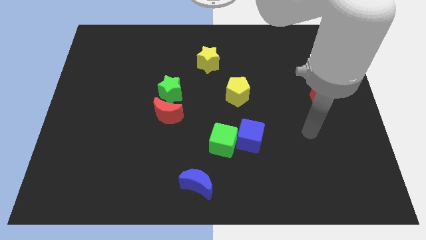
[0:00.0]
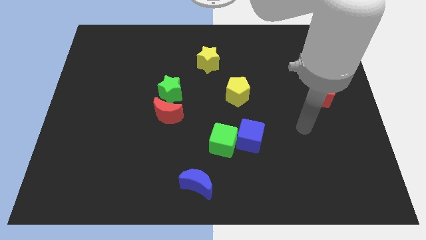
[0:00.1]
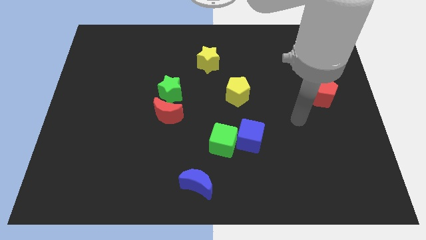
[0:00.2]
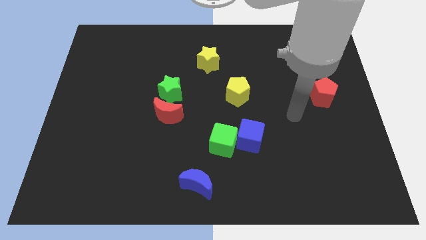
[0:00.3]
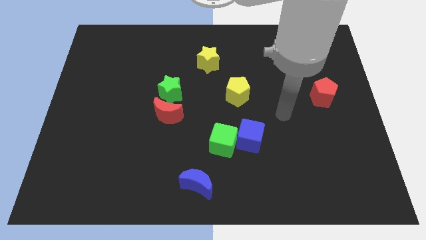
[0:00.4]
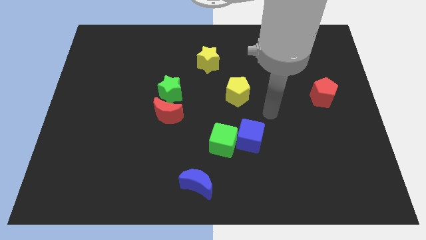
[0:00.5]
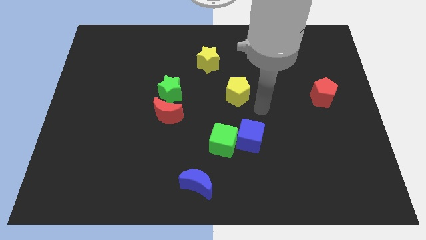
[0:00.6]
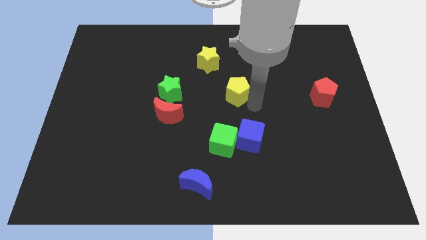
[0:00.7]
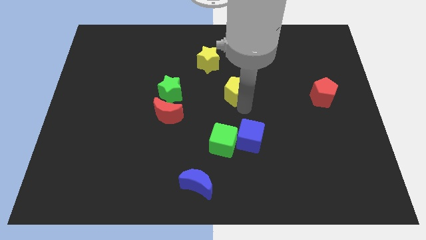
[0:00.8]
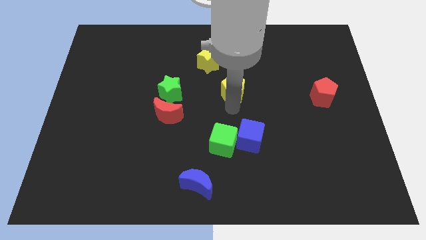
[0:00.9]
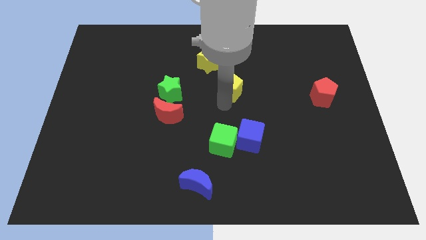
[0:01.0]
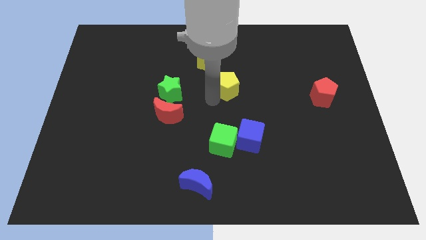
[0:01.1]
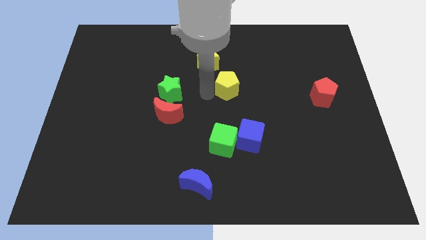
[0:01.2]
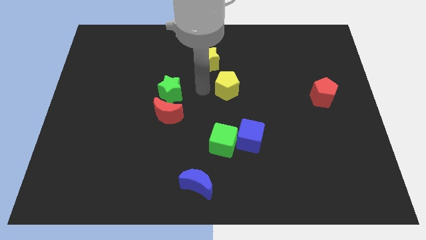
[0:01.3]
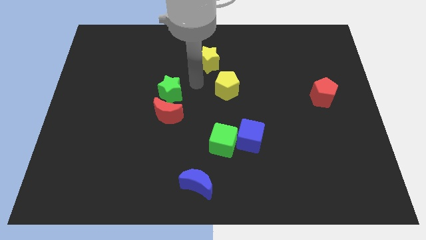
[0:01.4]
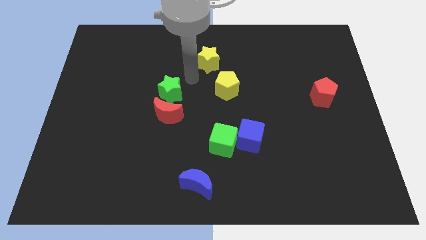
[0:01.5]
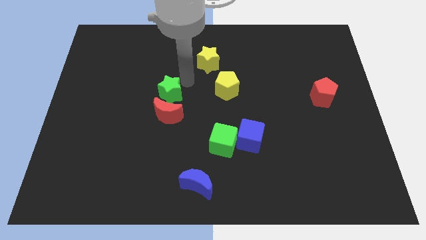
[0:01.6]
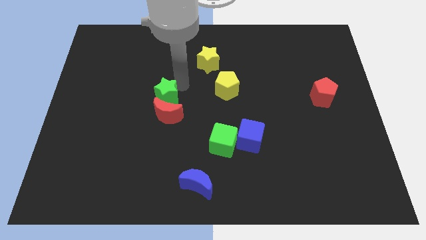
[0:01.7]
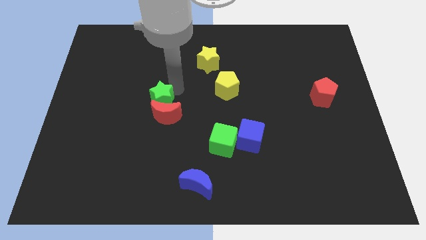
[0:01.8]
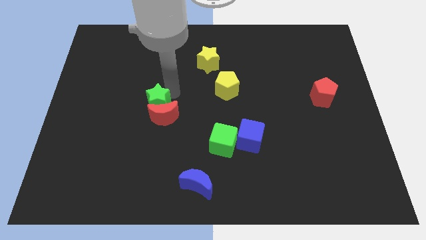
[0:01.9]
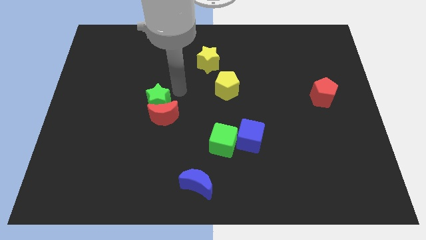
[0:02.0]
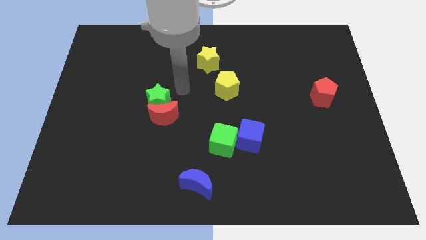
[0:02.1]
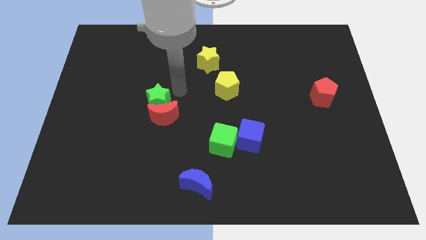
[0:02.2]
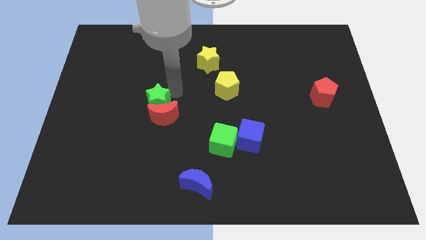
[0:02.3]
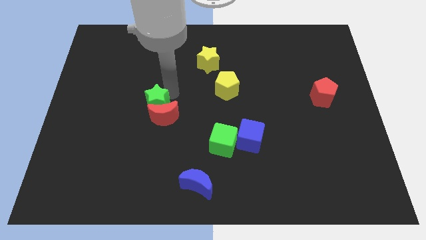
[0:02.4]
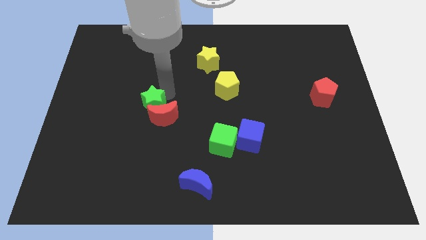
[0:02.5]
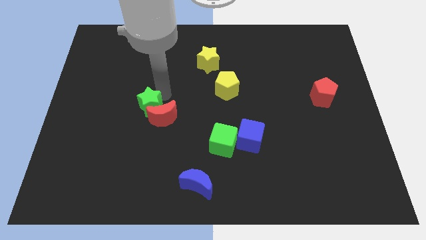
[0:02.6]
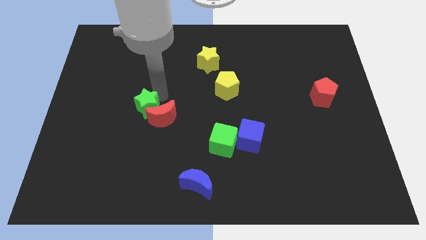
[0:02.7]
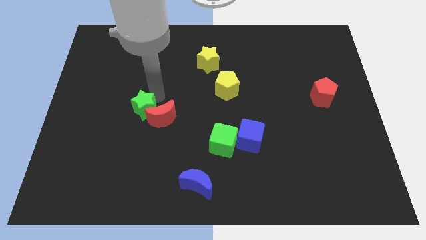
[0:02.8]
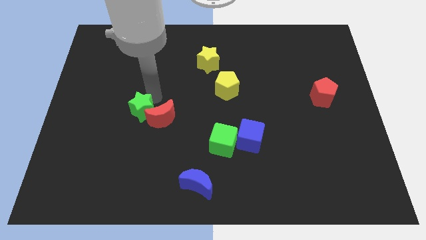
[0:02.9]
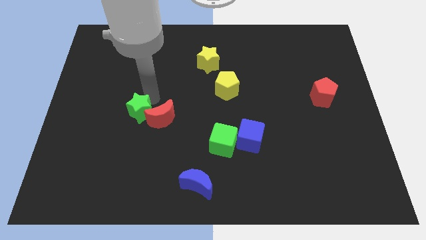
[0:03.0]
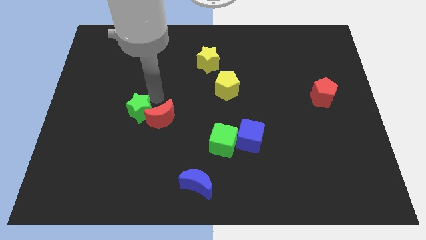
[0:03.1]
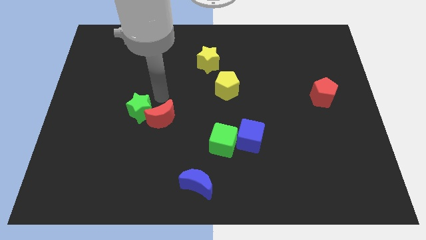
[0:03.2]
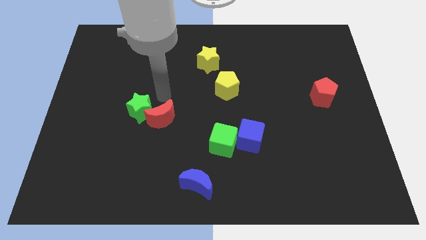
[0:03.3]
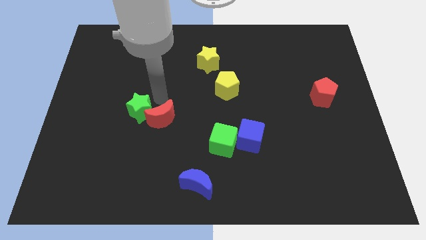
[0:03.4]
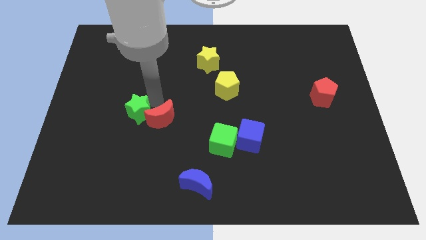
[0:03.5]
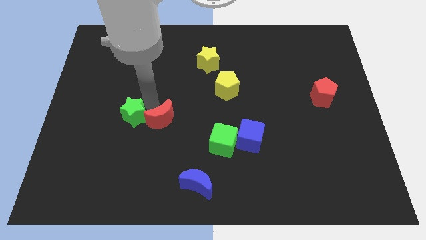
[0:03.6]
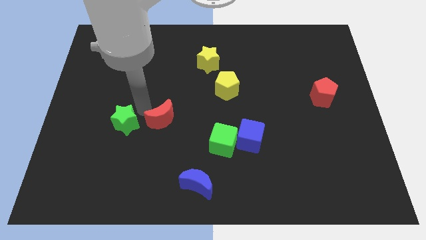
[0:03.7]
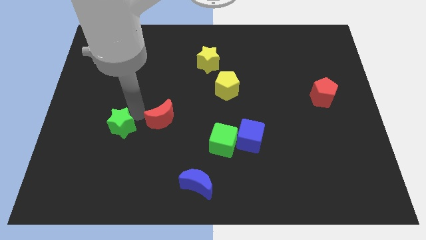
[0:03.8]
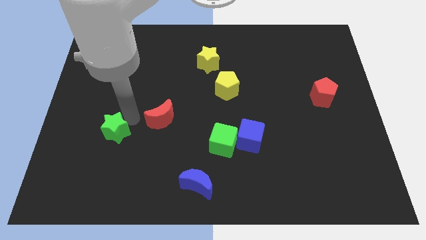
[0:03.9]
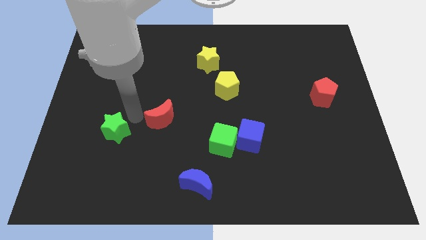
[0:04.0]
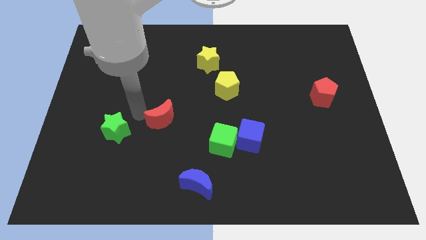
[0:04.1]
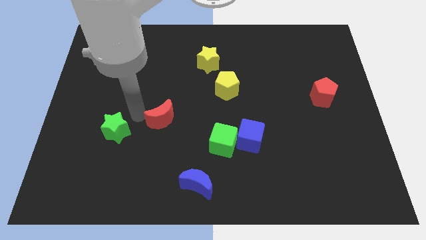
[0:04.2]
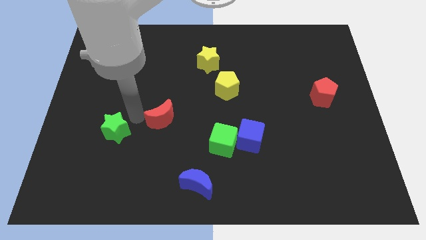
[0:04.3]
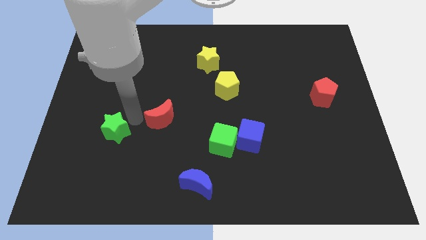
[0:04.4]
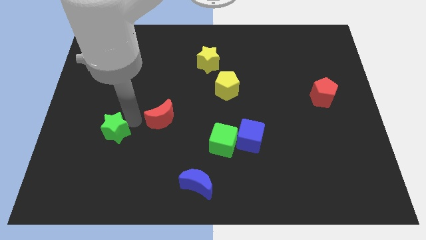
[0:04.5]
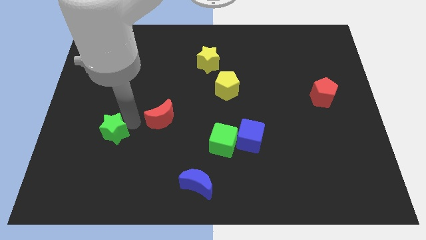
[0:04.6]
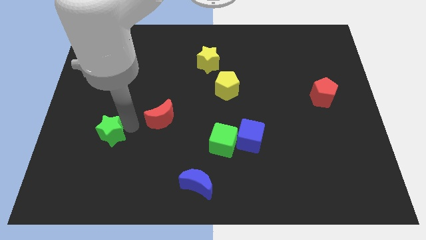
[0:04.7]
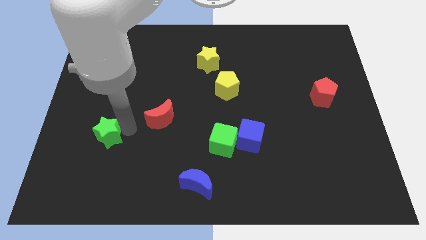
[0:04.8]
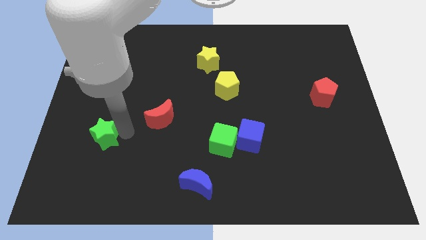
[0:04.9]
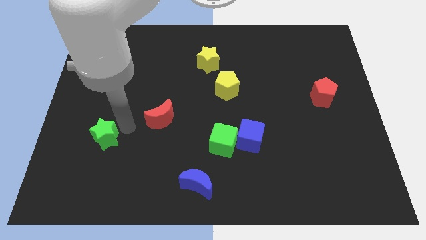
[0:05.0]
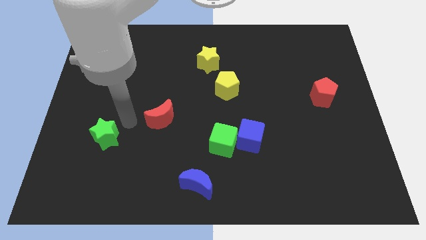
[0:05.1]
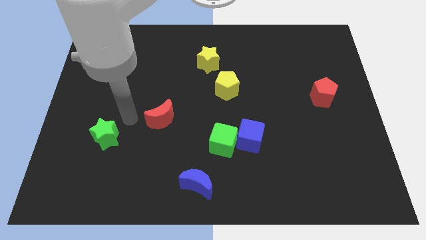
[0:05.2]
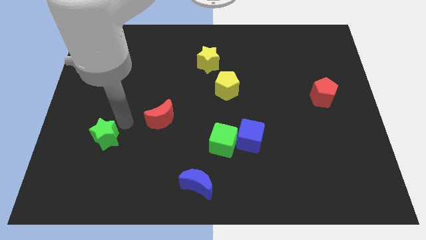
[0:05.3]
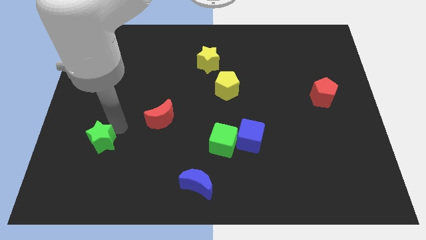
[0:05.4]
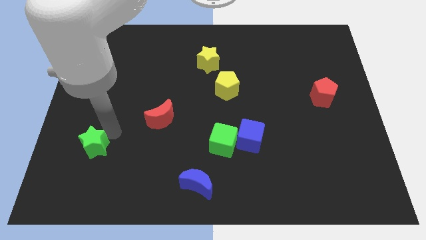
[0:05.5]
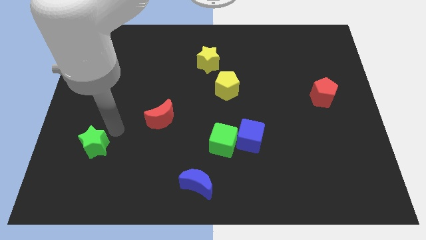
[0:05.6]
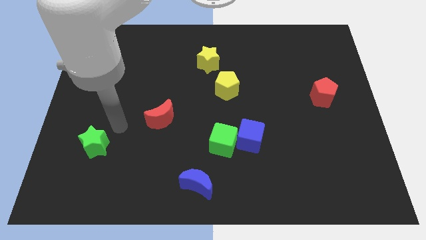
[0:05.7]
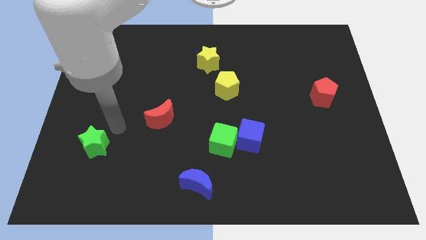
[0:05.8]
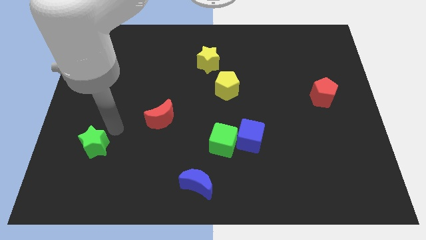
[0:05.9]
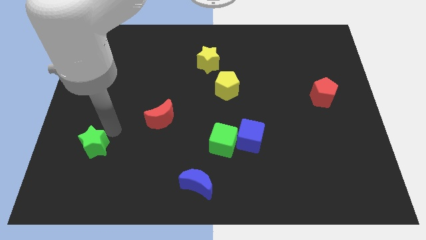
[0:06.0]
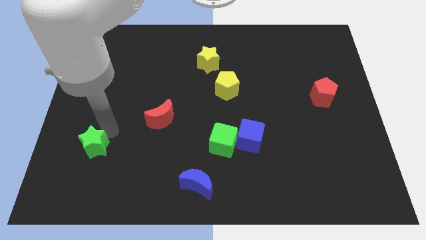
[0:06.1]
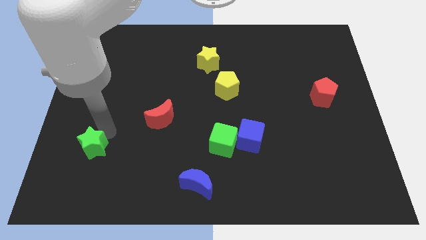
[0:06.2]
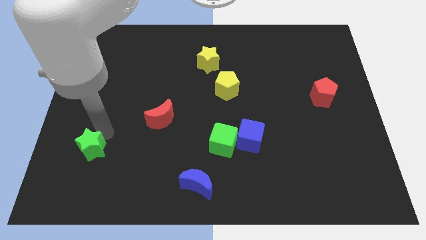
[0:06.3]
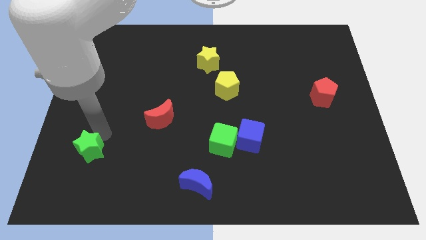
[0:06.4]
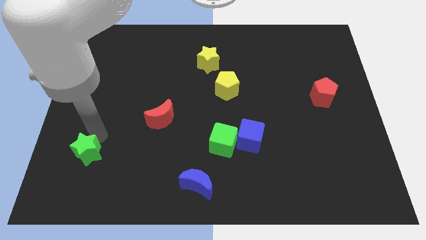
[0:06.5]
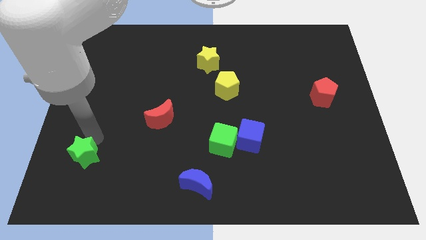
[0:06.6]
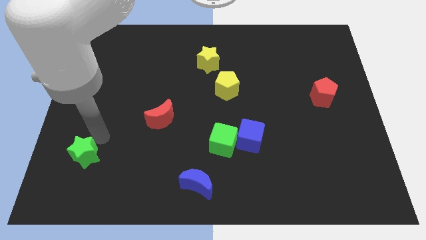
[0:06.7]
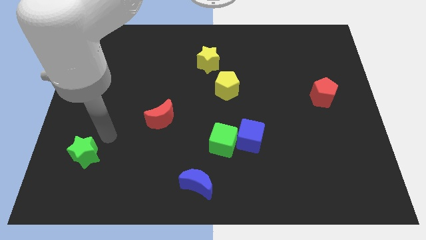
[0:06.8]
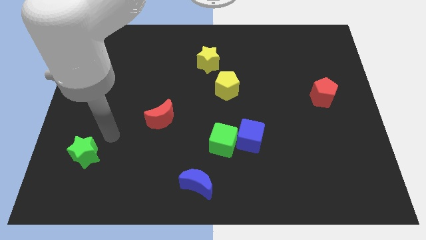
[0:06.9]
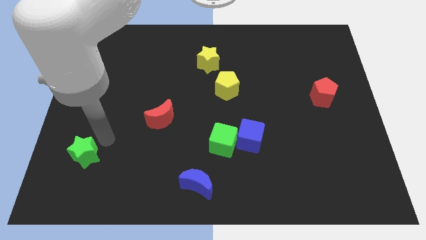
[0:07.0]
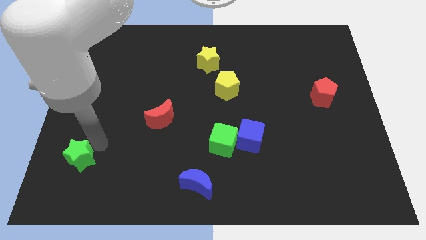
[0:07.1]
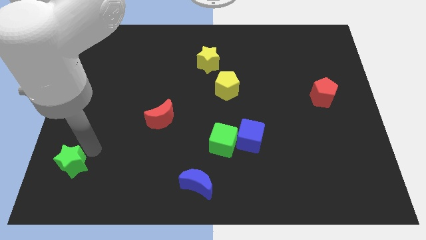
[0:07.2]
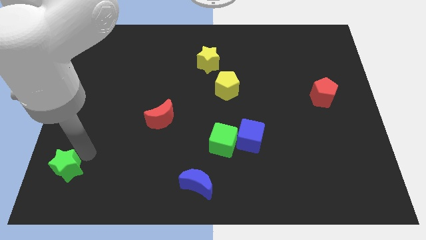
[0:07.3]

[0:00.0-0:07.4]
put the green star to the bottom left
